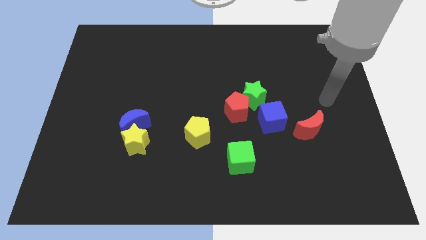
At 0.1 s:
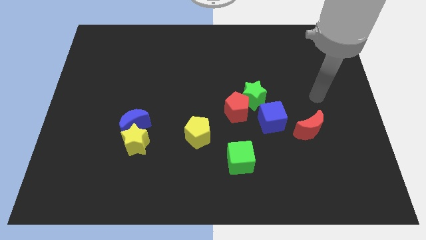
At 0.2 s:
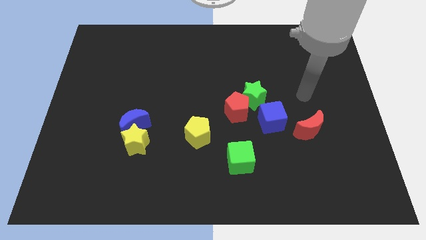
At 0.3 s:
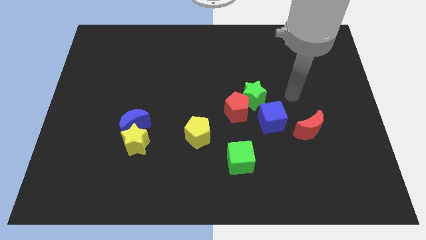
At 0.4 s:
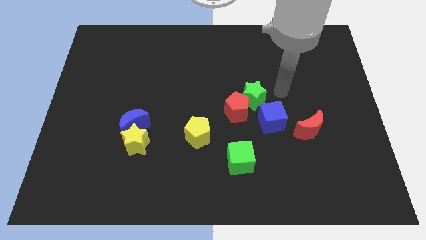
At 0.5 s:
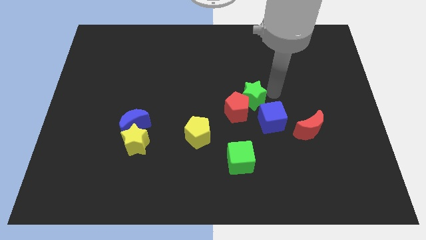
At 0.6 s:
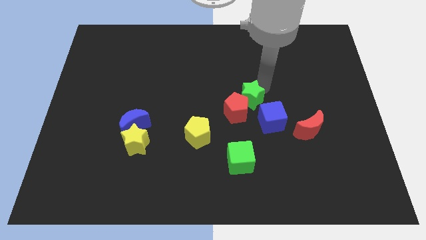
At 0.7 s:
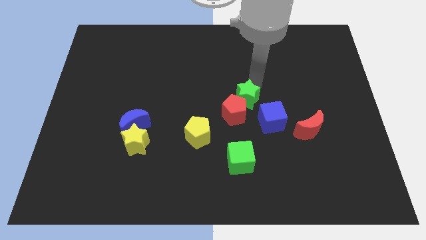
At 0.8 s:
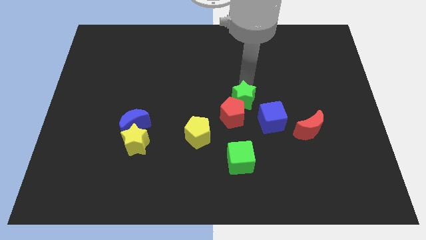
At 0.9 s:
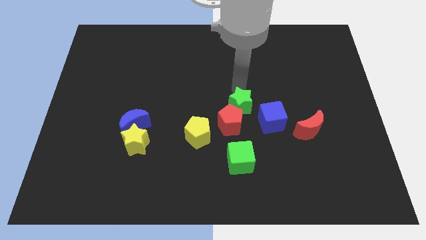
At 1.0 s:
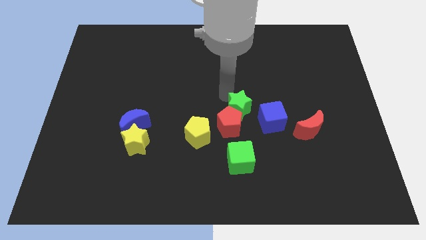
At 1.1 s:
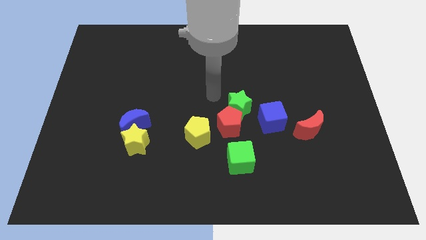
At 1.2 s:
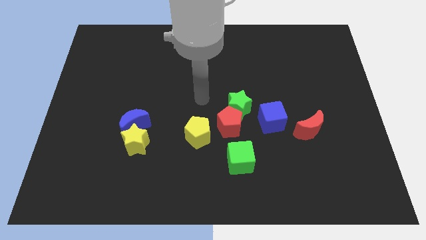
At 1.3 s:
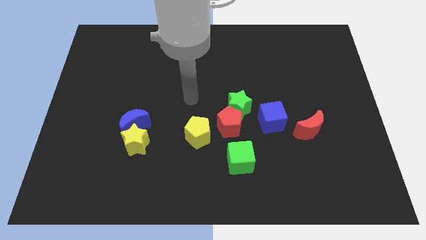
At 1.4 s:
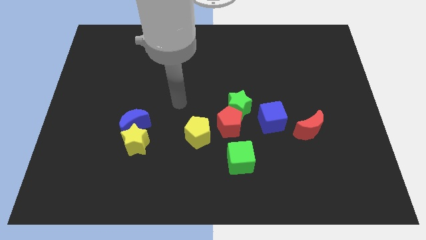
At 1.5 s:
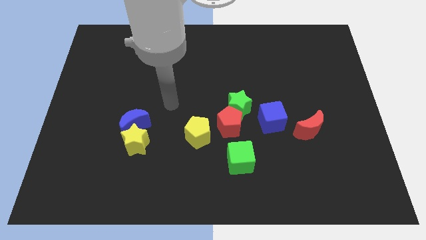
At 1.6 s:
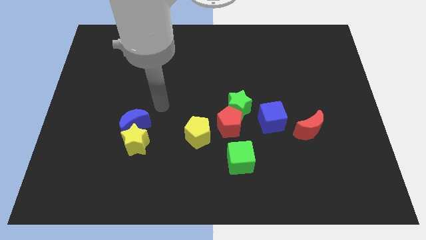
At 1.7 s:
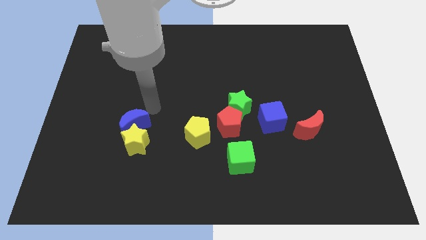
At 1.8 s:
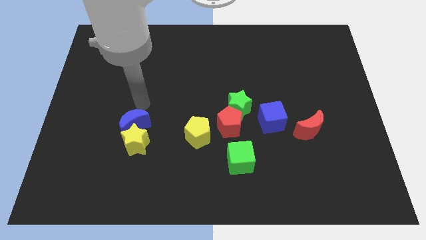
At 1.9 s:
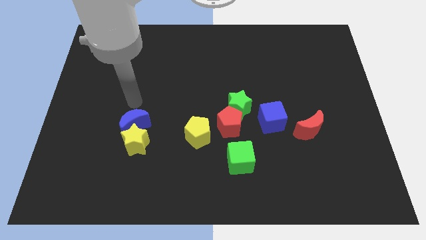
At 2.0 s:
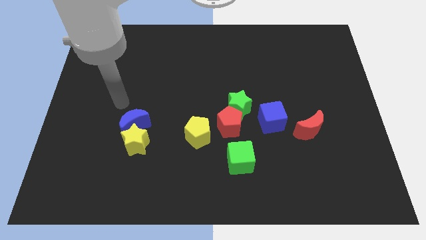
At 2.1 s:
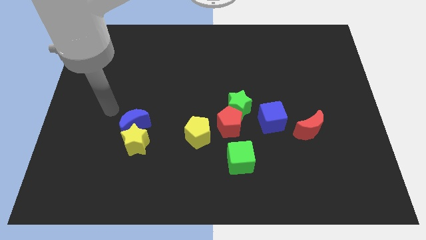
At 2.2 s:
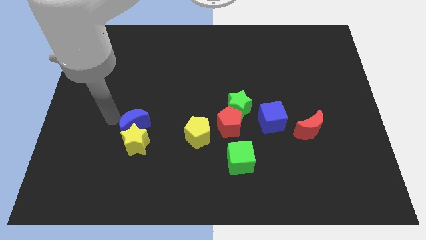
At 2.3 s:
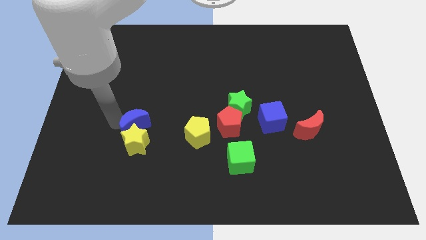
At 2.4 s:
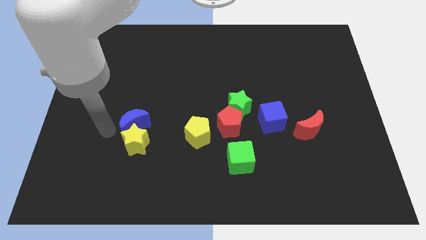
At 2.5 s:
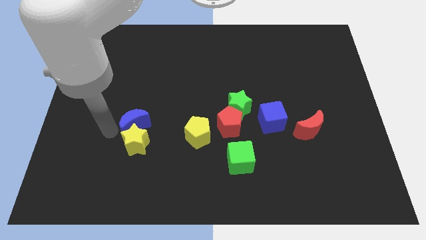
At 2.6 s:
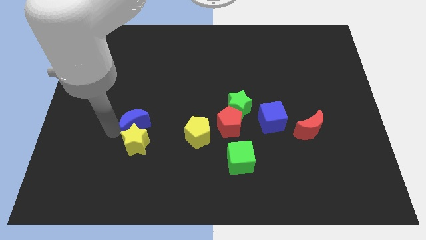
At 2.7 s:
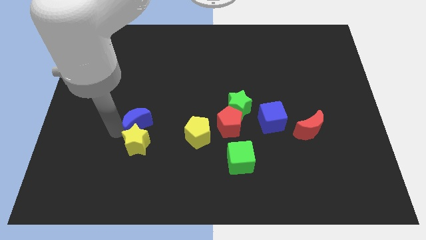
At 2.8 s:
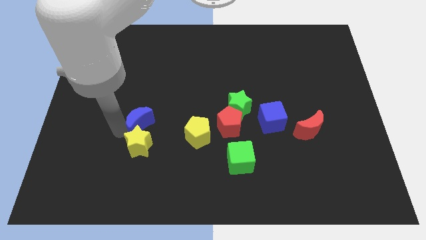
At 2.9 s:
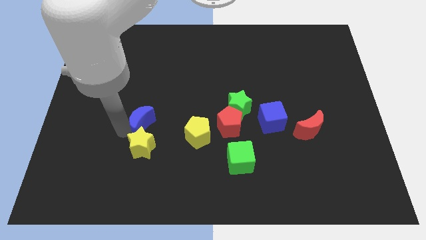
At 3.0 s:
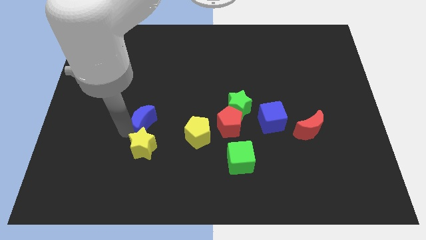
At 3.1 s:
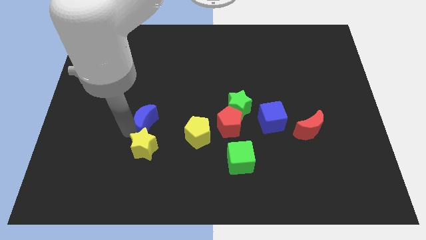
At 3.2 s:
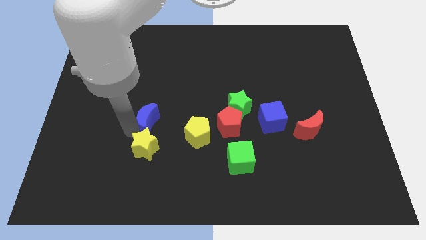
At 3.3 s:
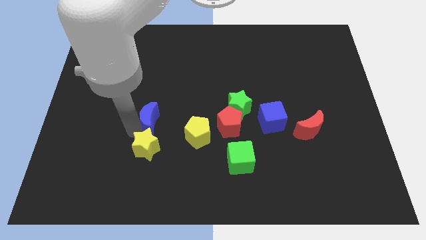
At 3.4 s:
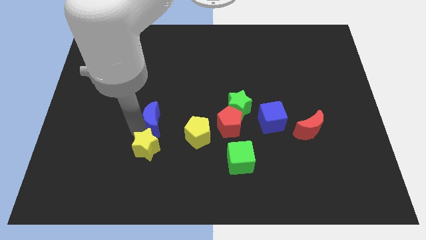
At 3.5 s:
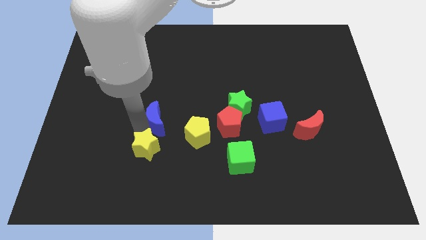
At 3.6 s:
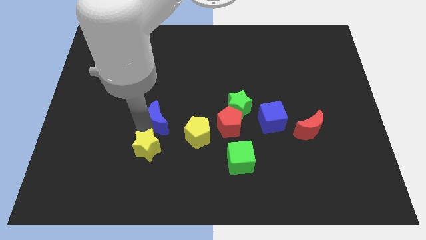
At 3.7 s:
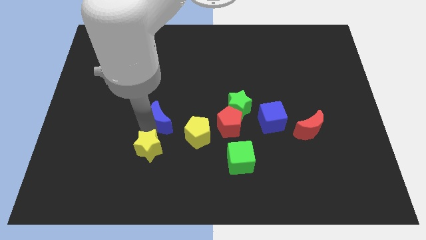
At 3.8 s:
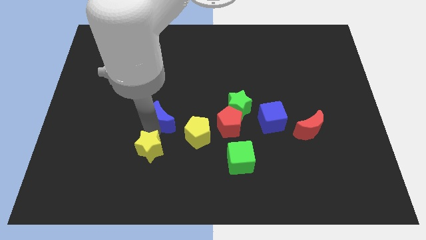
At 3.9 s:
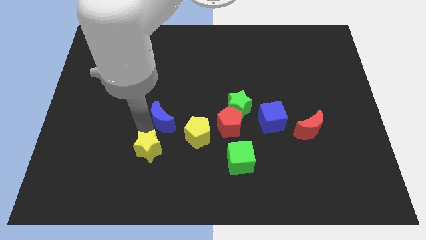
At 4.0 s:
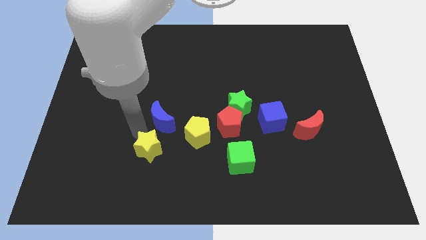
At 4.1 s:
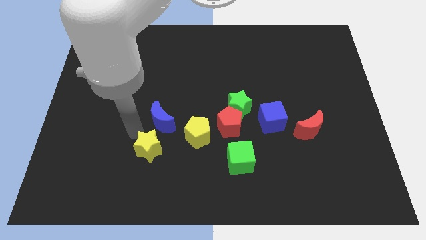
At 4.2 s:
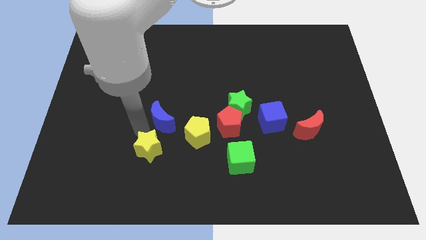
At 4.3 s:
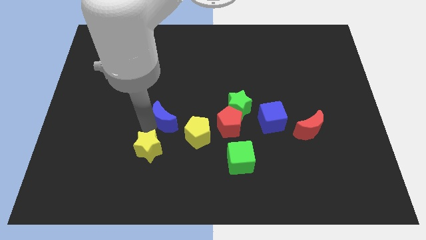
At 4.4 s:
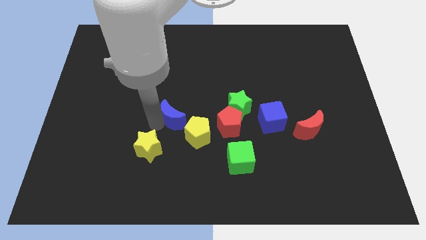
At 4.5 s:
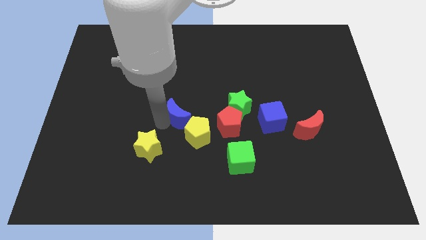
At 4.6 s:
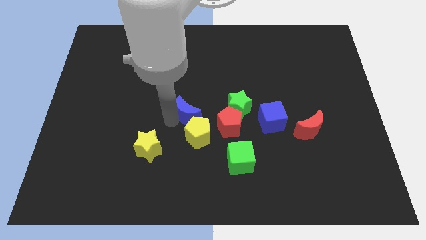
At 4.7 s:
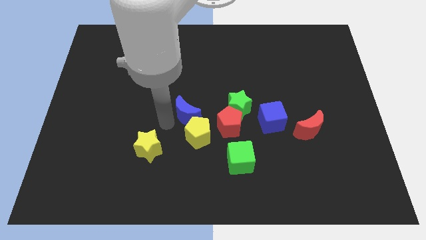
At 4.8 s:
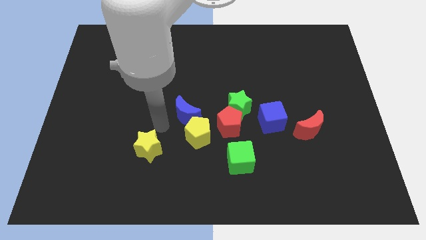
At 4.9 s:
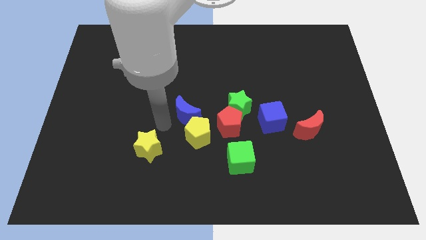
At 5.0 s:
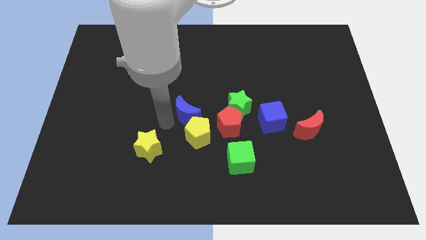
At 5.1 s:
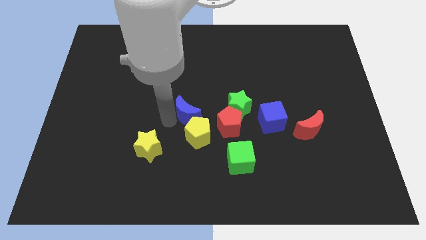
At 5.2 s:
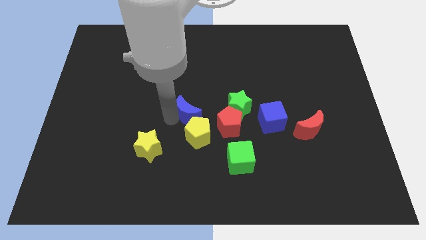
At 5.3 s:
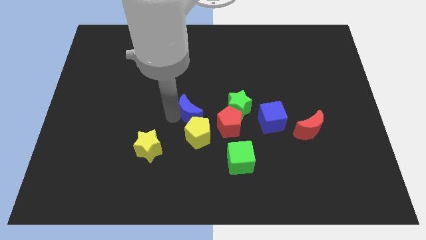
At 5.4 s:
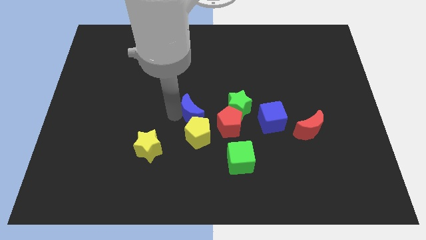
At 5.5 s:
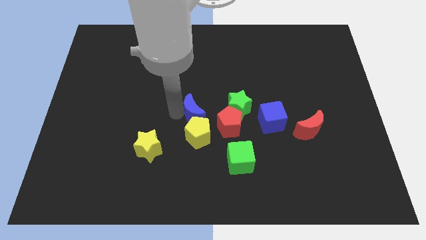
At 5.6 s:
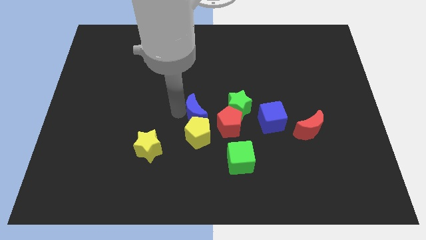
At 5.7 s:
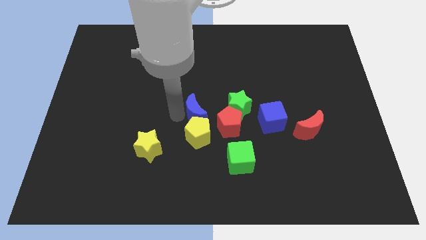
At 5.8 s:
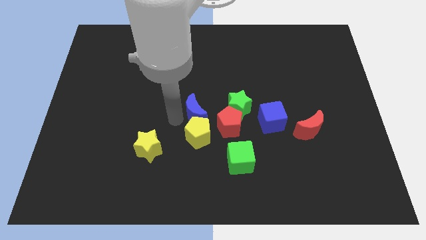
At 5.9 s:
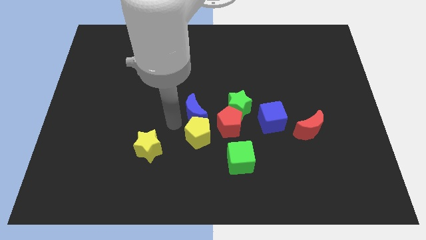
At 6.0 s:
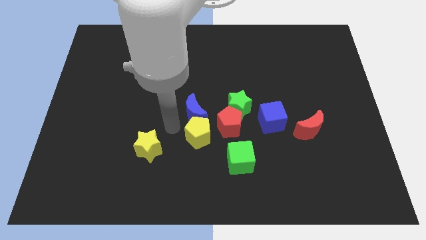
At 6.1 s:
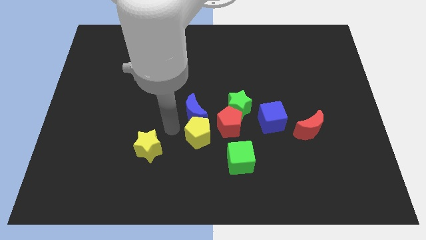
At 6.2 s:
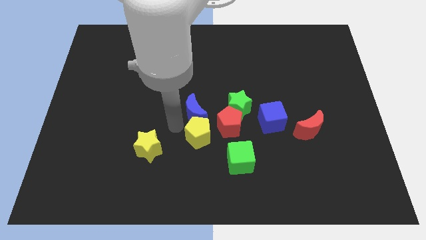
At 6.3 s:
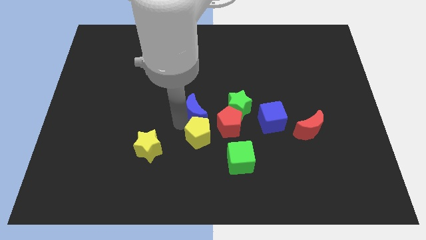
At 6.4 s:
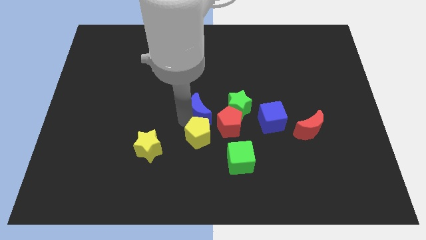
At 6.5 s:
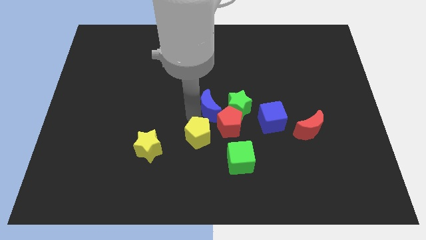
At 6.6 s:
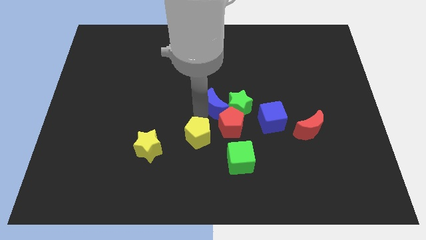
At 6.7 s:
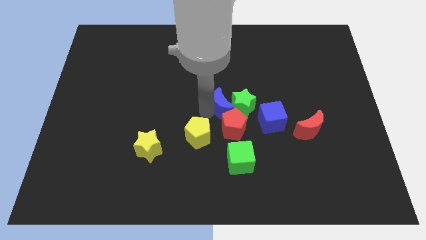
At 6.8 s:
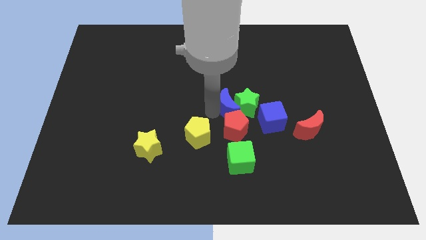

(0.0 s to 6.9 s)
slide the blue moon to the top left of the blue cube

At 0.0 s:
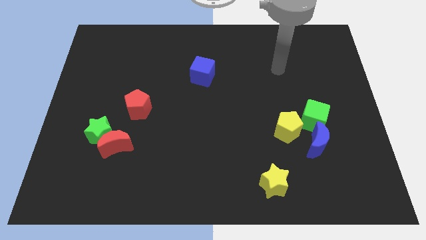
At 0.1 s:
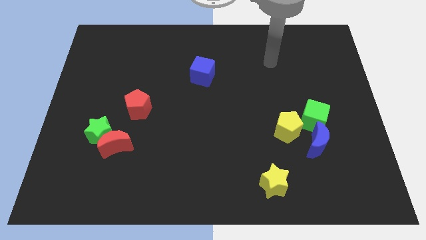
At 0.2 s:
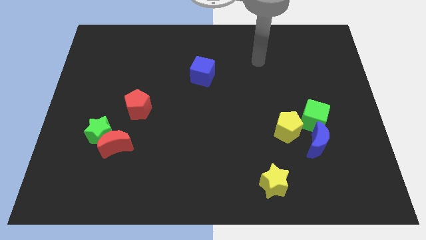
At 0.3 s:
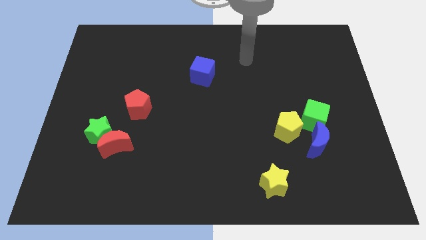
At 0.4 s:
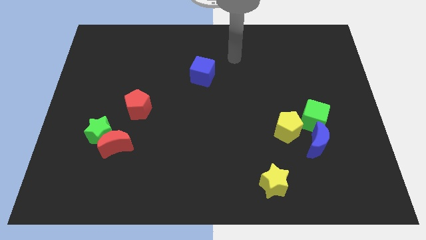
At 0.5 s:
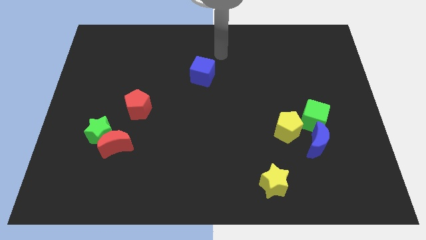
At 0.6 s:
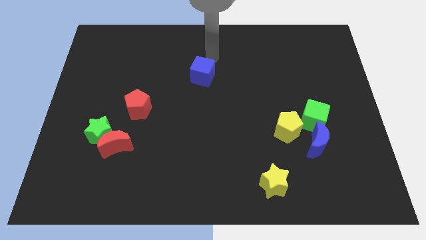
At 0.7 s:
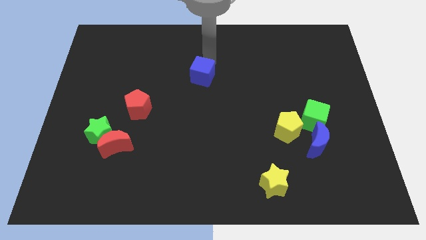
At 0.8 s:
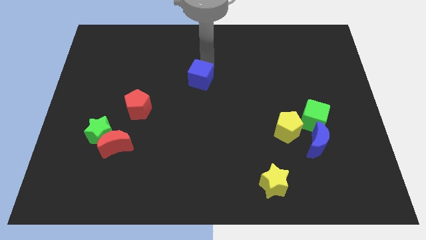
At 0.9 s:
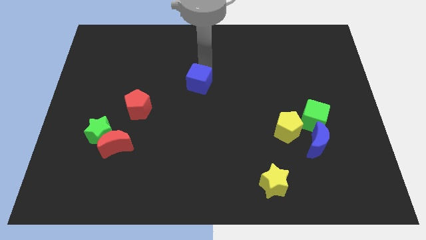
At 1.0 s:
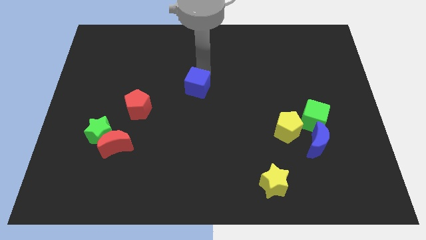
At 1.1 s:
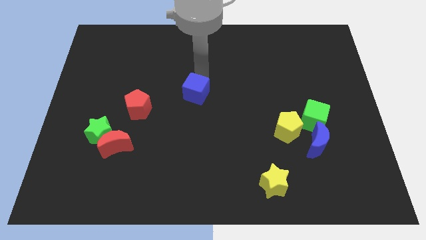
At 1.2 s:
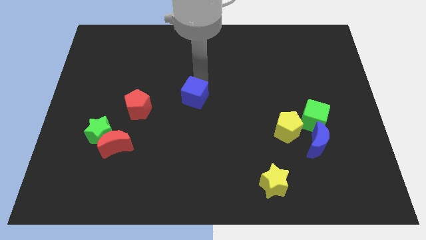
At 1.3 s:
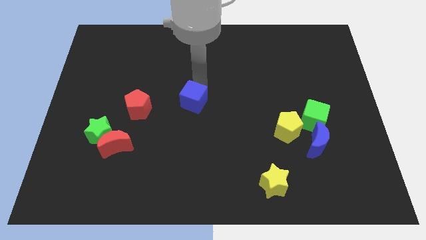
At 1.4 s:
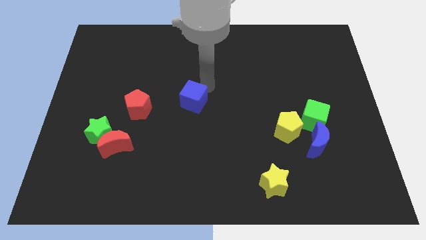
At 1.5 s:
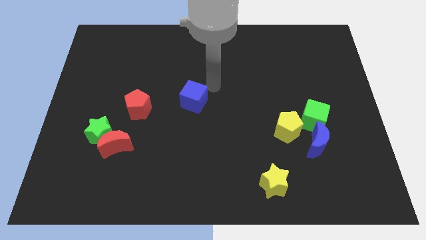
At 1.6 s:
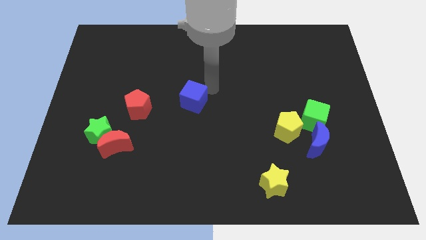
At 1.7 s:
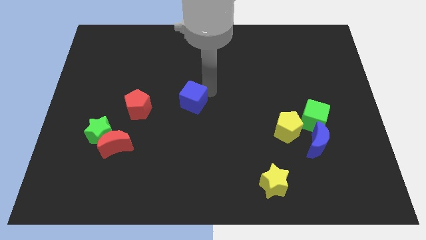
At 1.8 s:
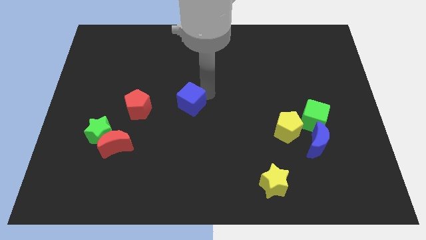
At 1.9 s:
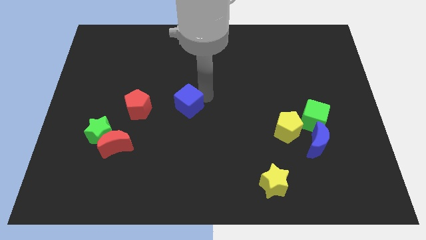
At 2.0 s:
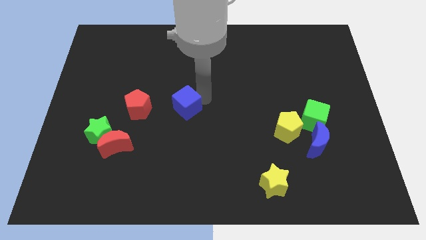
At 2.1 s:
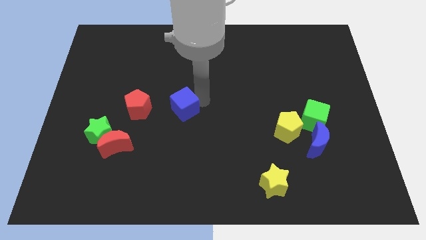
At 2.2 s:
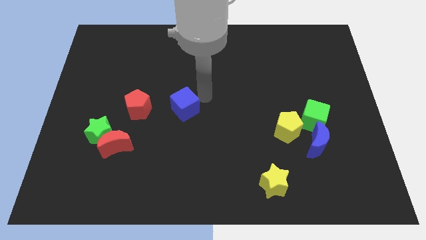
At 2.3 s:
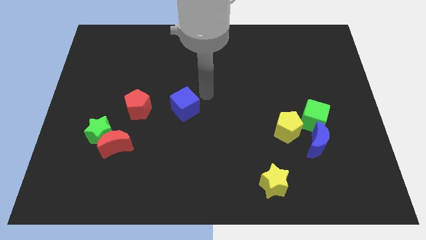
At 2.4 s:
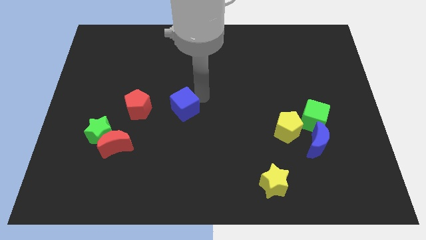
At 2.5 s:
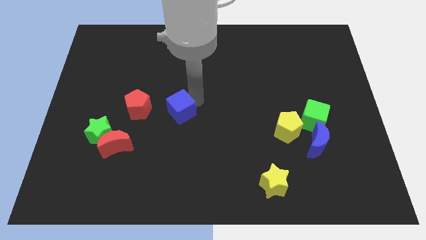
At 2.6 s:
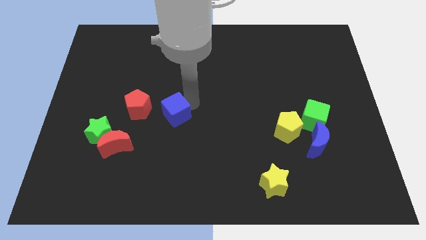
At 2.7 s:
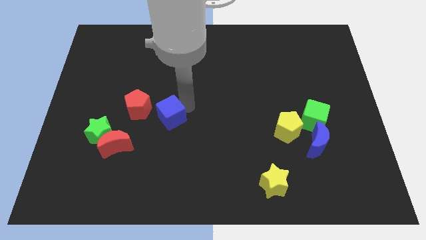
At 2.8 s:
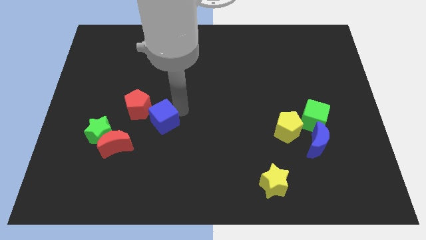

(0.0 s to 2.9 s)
push the blue cube just right of the green star
